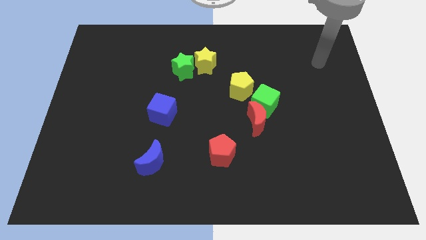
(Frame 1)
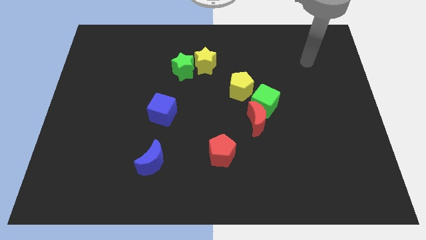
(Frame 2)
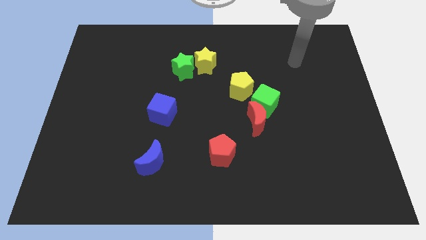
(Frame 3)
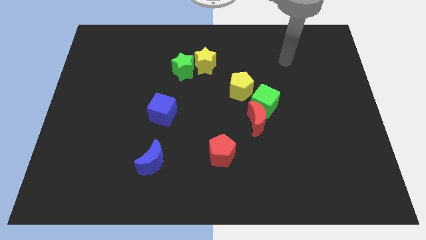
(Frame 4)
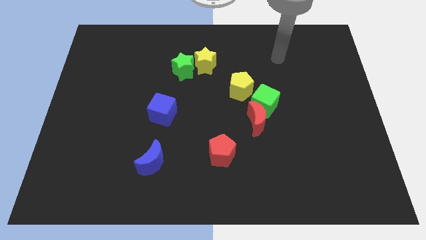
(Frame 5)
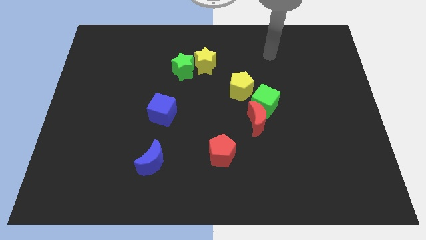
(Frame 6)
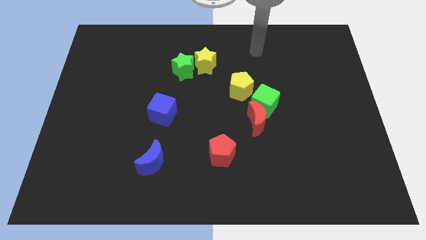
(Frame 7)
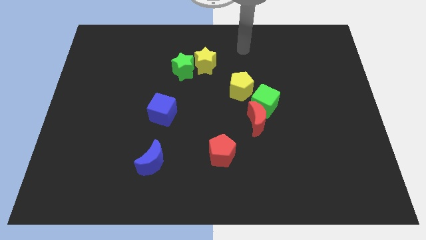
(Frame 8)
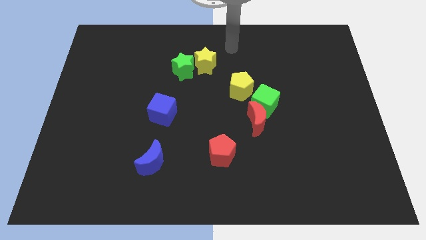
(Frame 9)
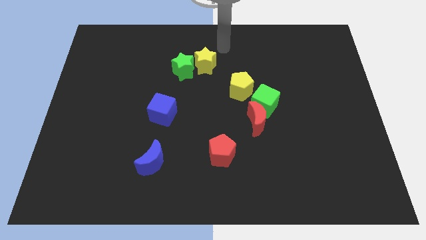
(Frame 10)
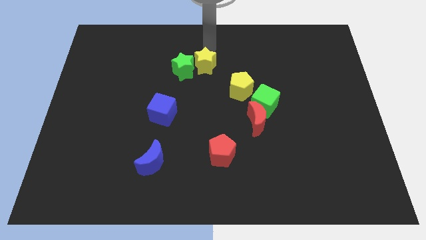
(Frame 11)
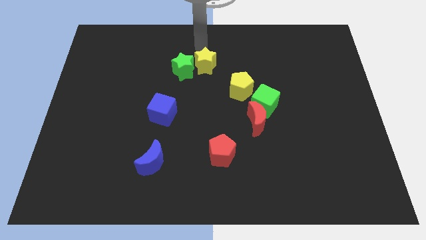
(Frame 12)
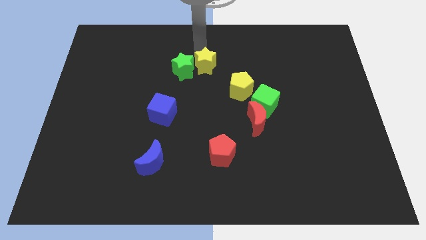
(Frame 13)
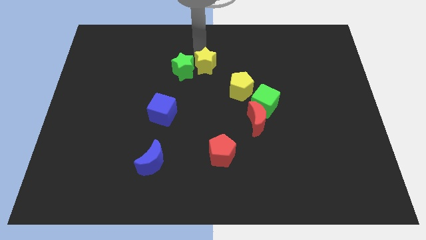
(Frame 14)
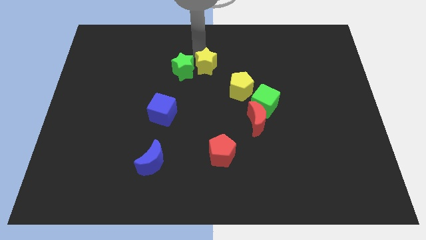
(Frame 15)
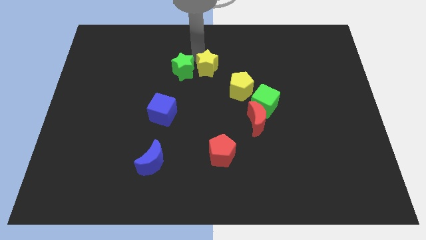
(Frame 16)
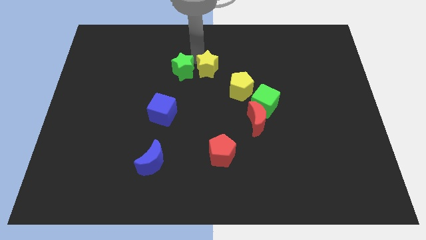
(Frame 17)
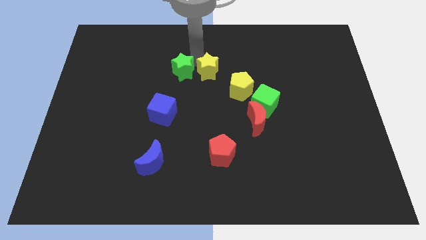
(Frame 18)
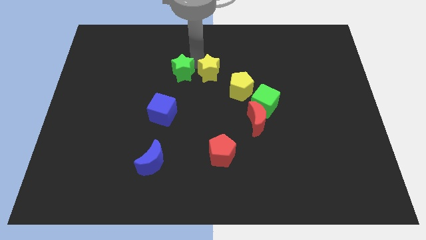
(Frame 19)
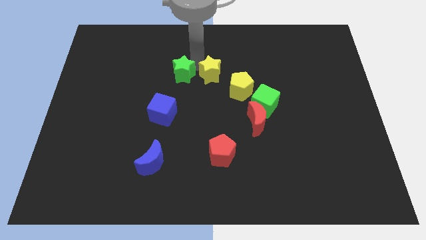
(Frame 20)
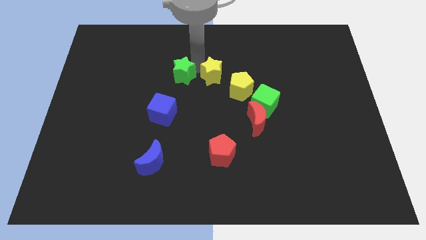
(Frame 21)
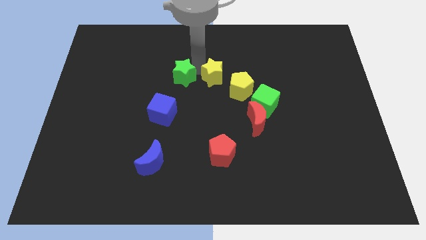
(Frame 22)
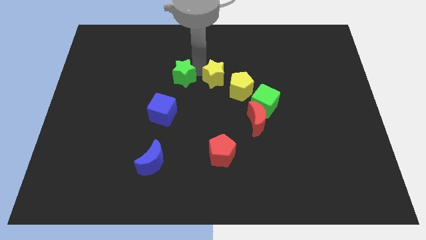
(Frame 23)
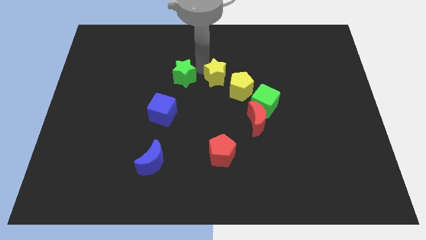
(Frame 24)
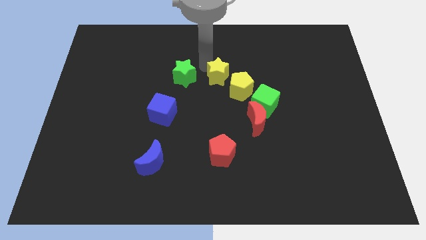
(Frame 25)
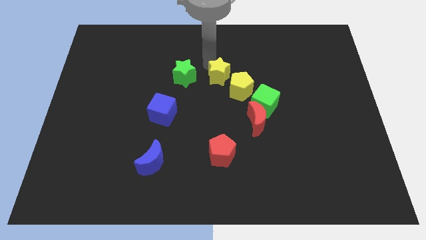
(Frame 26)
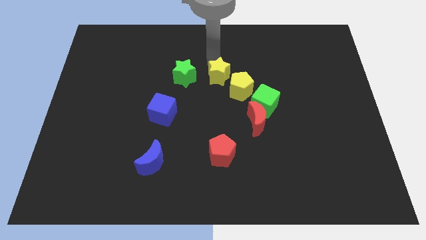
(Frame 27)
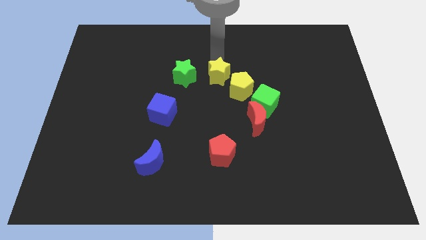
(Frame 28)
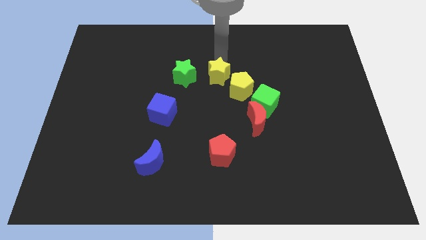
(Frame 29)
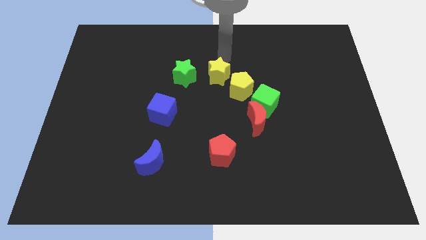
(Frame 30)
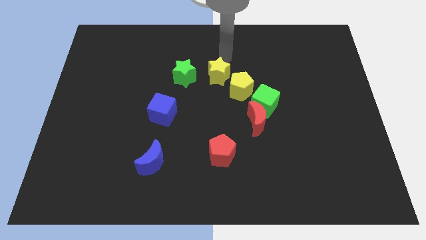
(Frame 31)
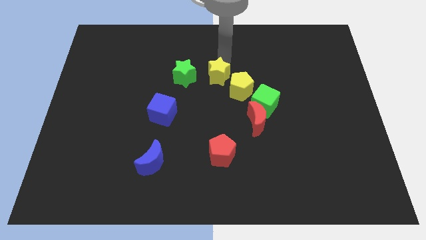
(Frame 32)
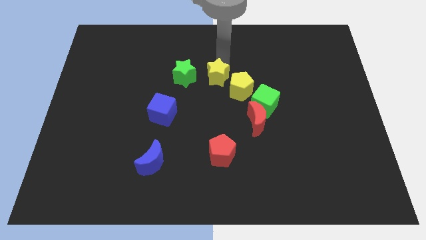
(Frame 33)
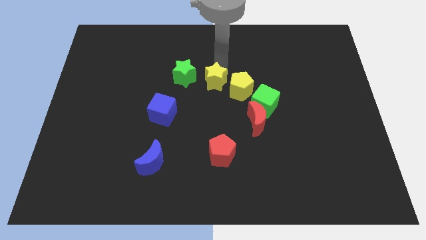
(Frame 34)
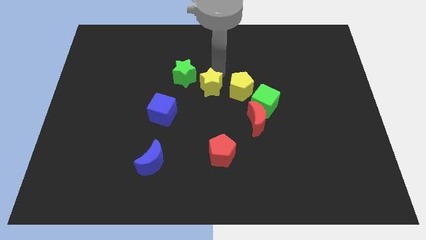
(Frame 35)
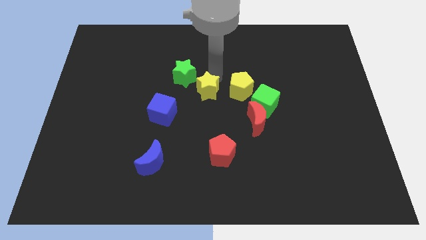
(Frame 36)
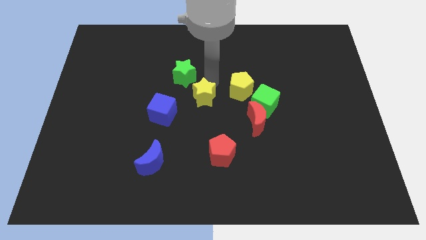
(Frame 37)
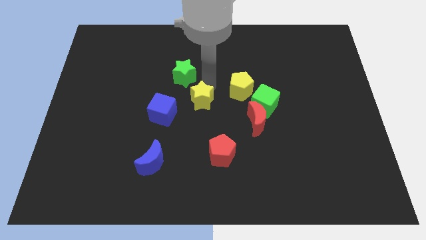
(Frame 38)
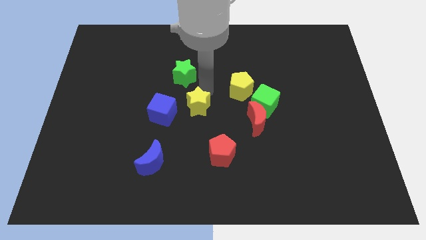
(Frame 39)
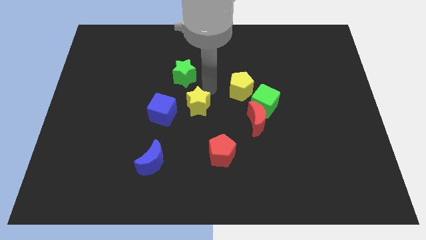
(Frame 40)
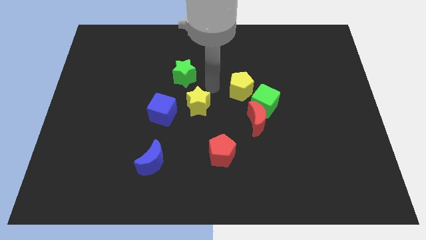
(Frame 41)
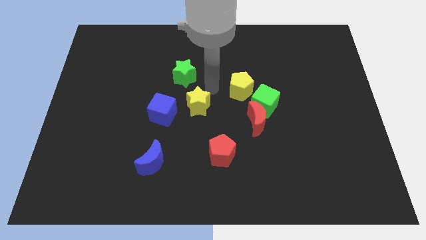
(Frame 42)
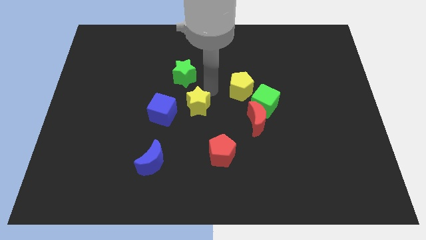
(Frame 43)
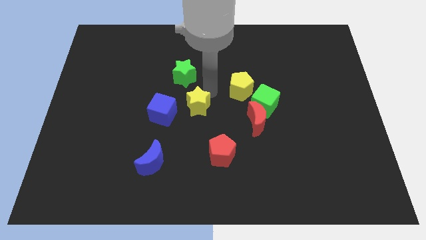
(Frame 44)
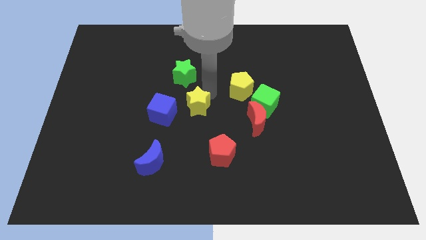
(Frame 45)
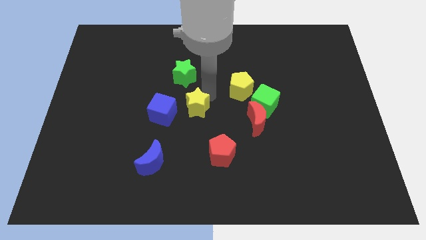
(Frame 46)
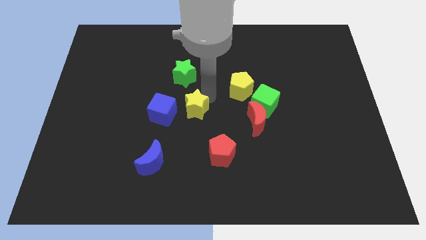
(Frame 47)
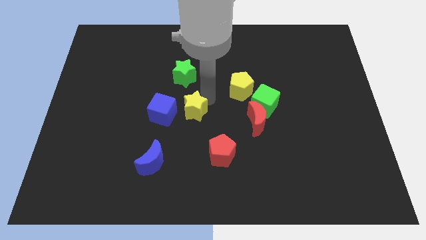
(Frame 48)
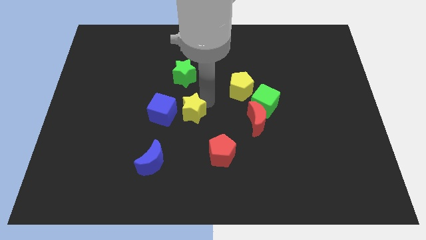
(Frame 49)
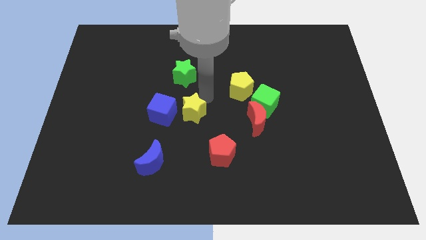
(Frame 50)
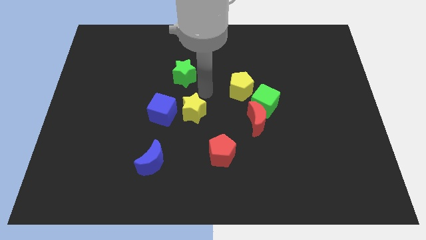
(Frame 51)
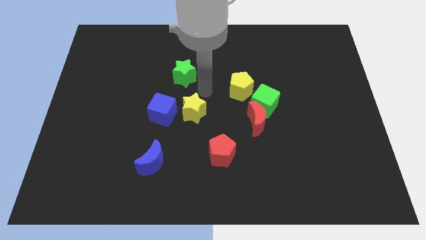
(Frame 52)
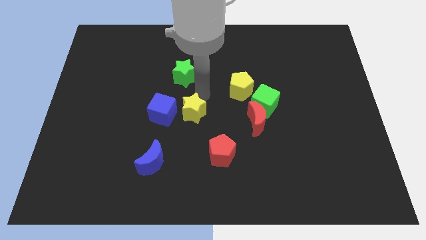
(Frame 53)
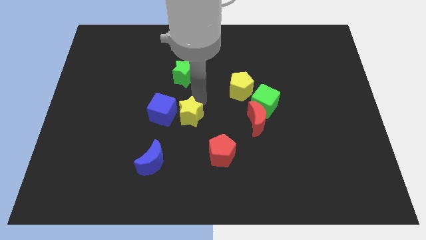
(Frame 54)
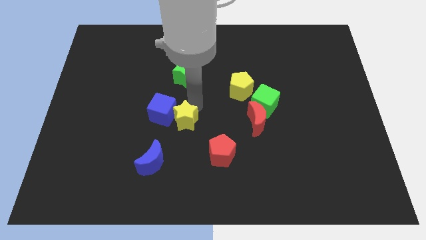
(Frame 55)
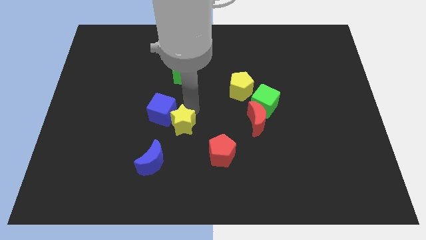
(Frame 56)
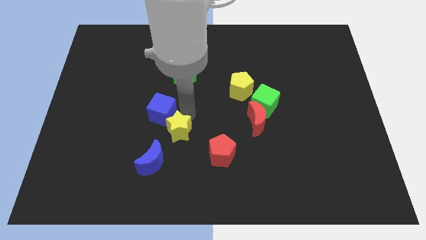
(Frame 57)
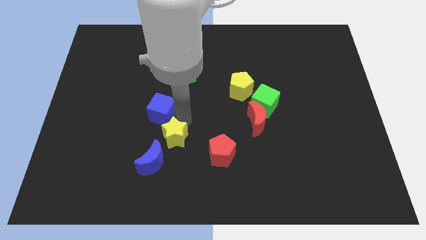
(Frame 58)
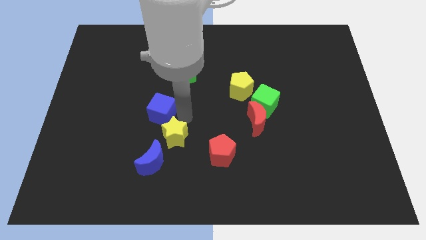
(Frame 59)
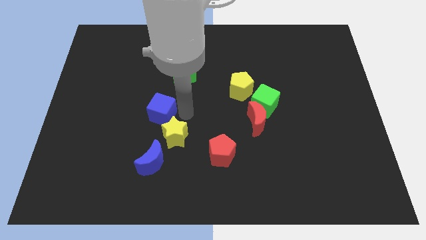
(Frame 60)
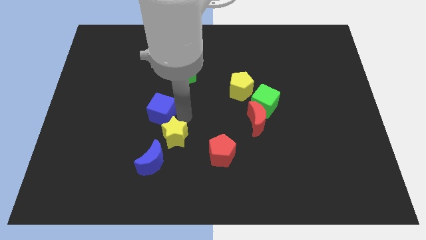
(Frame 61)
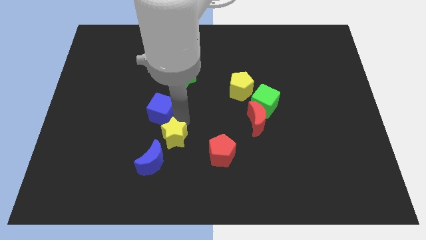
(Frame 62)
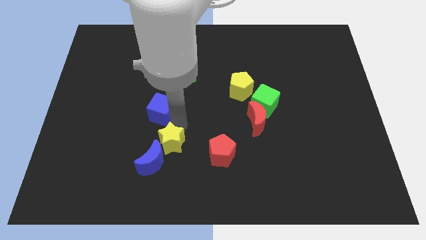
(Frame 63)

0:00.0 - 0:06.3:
put the yellow star close to the blue moon

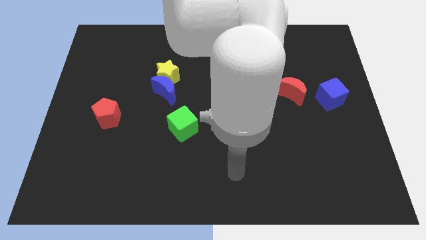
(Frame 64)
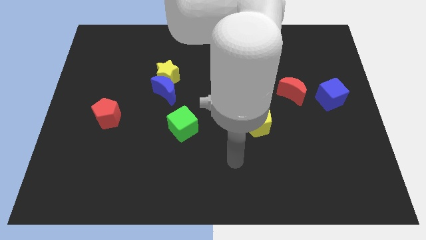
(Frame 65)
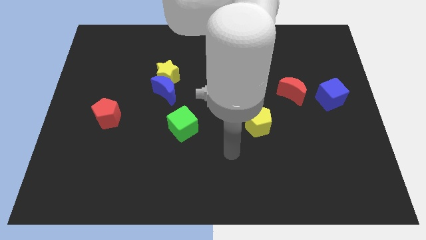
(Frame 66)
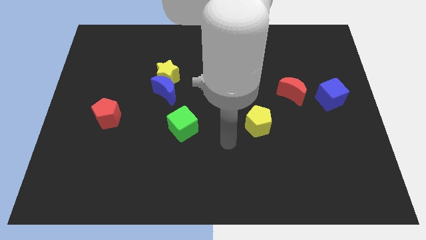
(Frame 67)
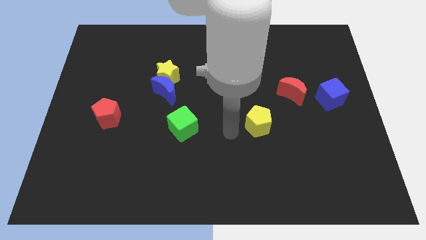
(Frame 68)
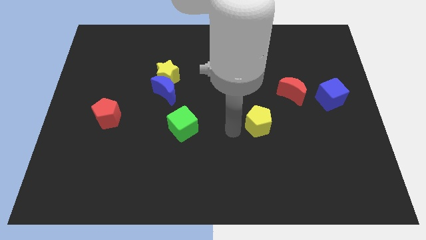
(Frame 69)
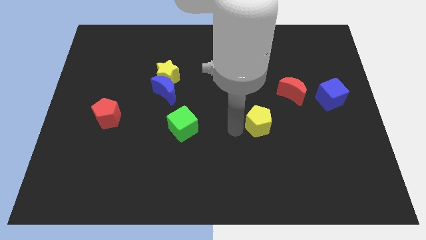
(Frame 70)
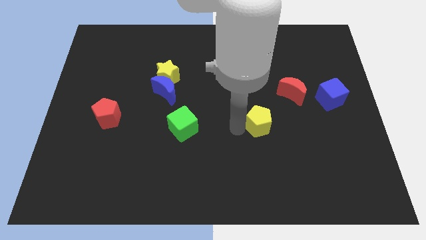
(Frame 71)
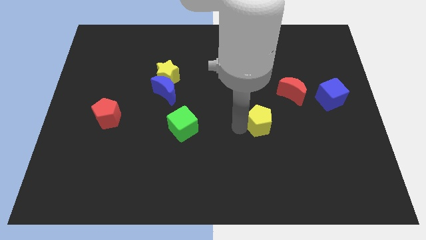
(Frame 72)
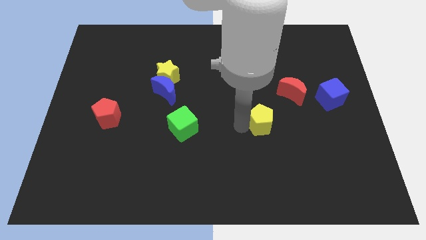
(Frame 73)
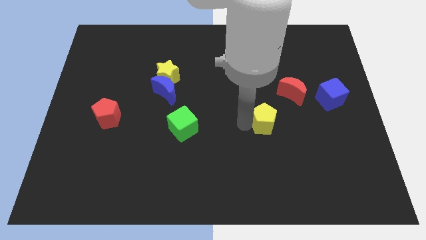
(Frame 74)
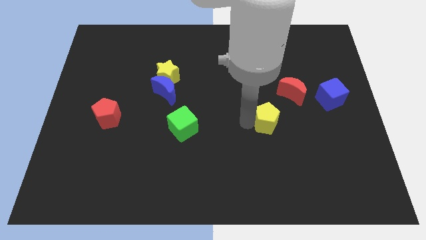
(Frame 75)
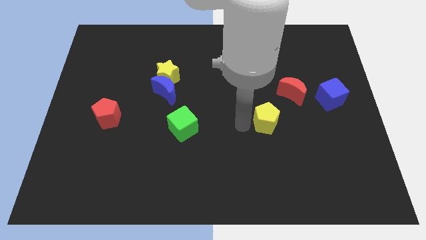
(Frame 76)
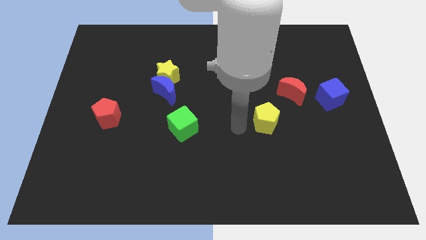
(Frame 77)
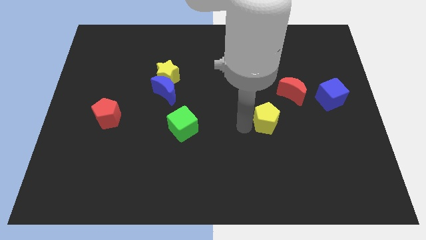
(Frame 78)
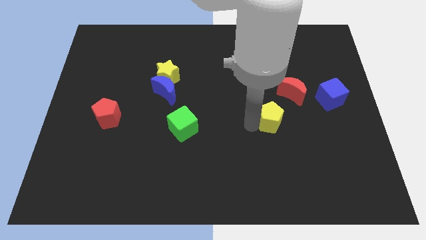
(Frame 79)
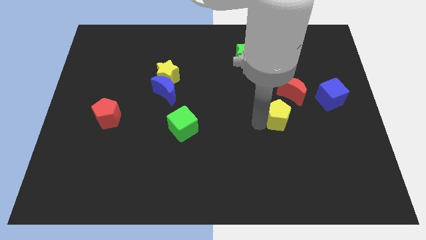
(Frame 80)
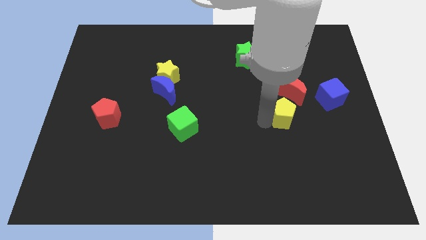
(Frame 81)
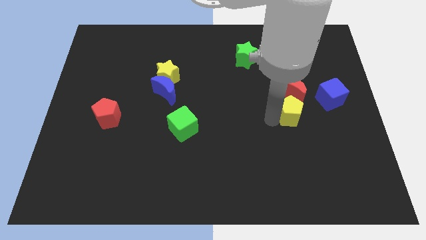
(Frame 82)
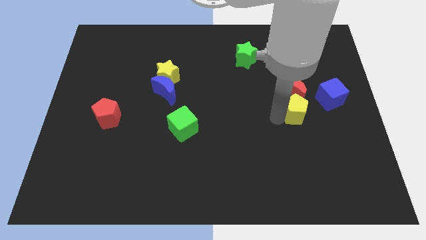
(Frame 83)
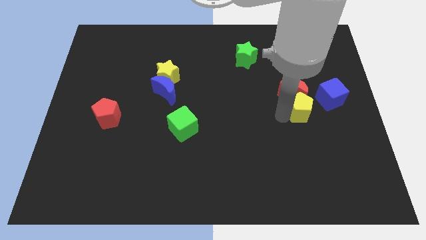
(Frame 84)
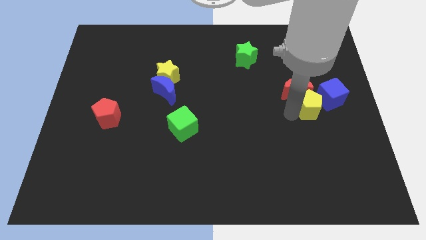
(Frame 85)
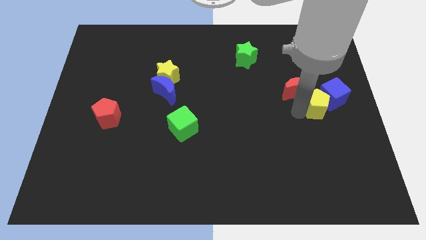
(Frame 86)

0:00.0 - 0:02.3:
push the yellow pentagon close to the blue cube
